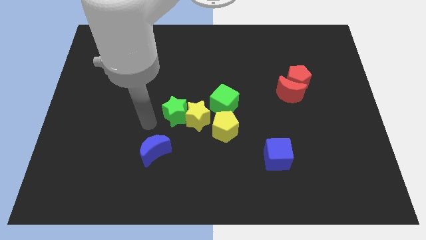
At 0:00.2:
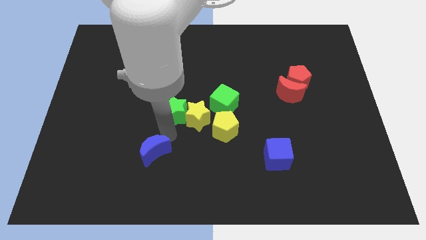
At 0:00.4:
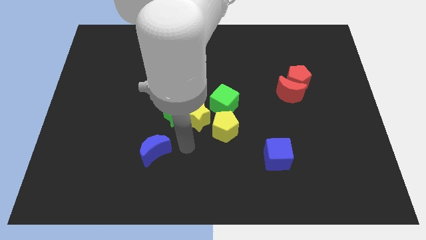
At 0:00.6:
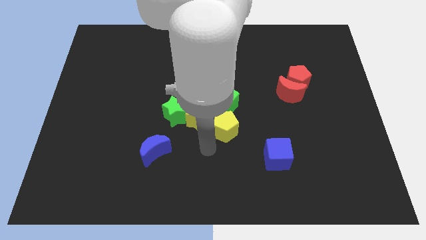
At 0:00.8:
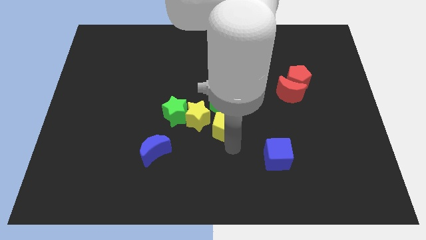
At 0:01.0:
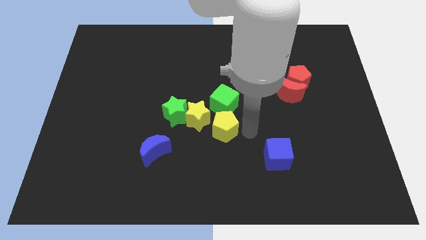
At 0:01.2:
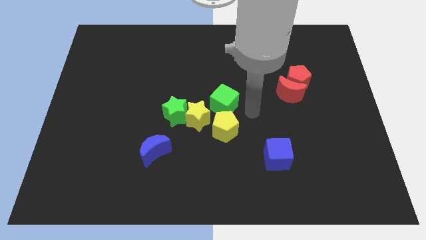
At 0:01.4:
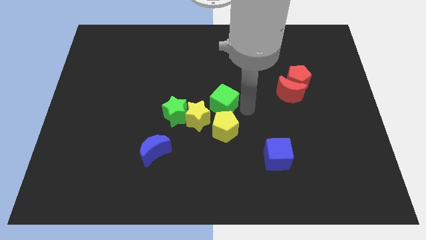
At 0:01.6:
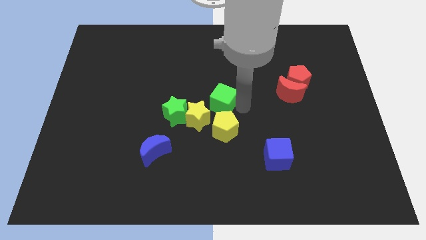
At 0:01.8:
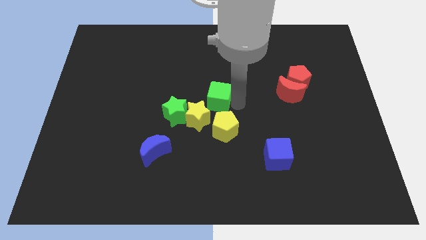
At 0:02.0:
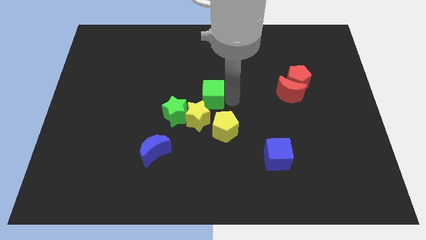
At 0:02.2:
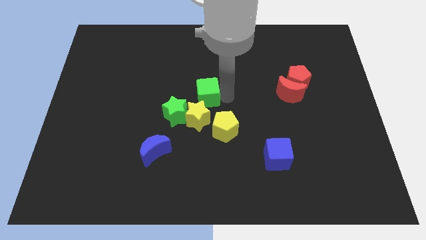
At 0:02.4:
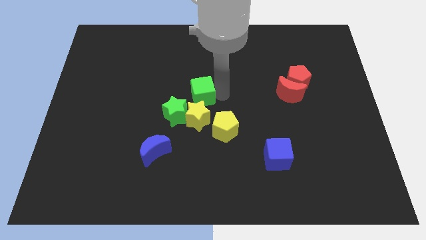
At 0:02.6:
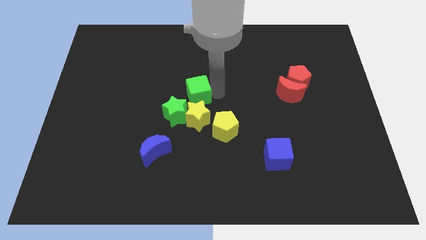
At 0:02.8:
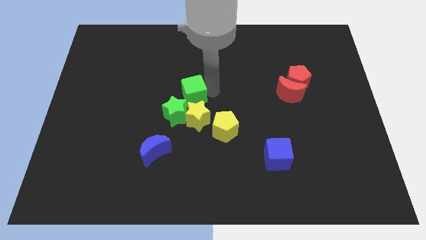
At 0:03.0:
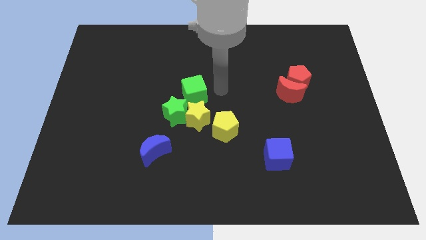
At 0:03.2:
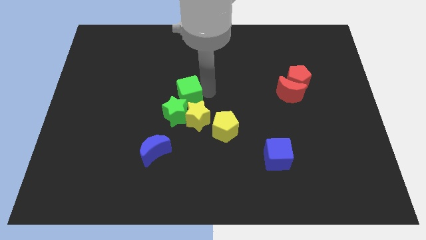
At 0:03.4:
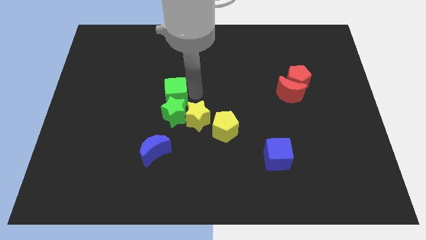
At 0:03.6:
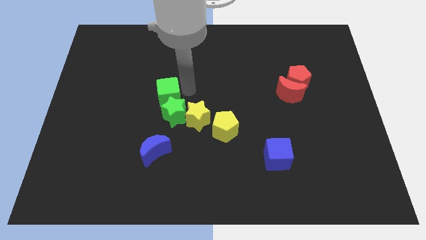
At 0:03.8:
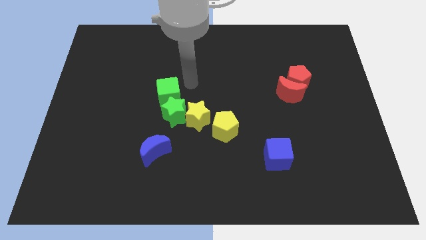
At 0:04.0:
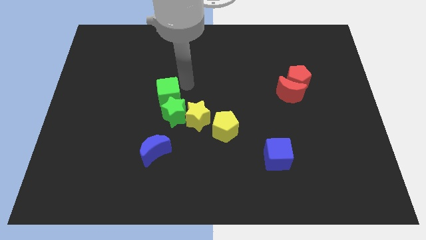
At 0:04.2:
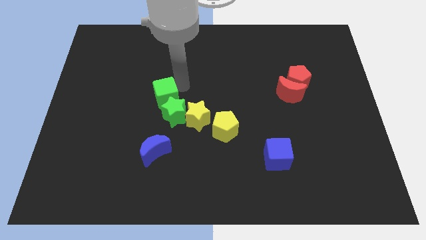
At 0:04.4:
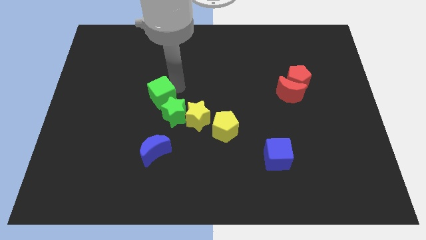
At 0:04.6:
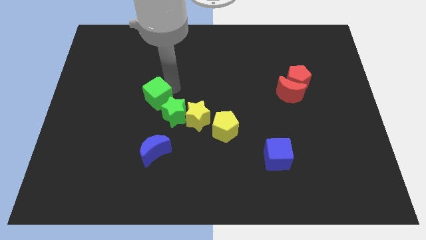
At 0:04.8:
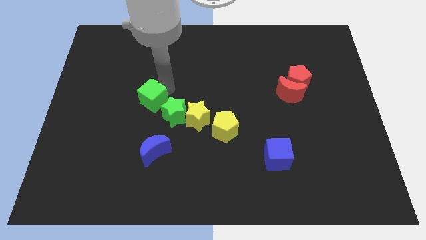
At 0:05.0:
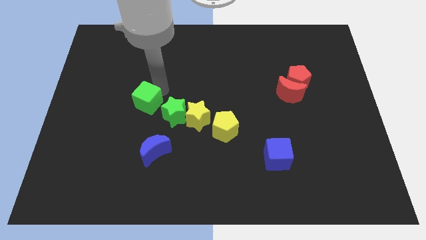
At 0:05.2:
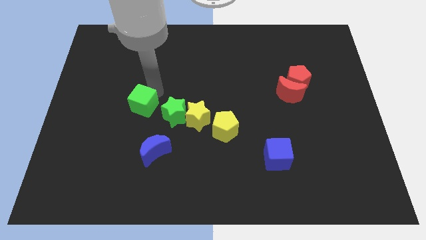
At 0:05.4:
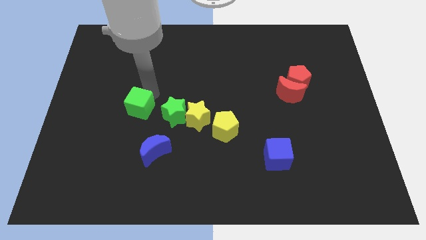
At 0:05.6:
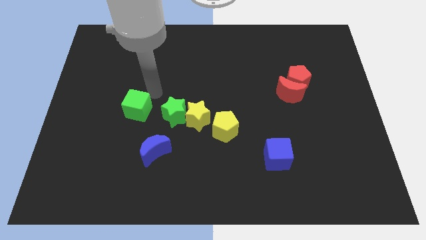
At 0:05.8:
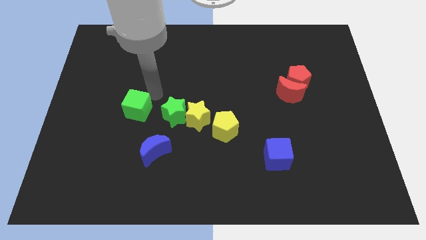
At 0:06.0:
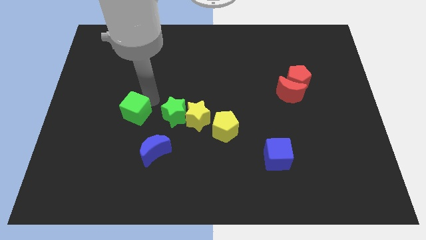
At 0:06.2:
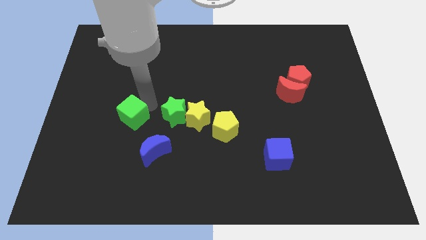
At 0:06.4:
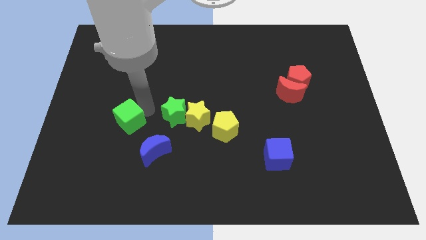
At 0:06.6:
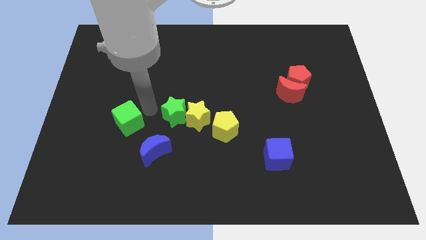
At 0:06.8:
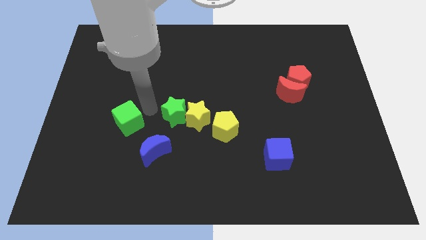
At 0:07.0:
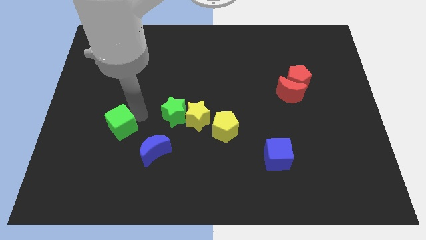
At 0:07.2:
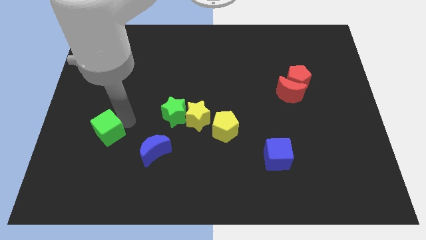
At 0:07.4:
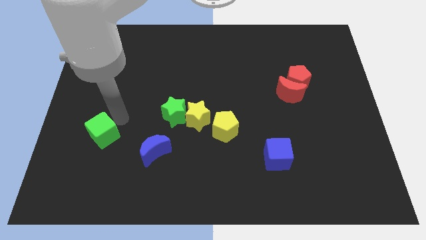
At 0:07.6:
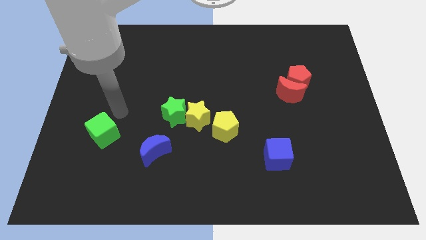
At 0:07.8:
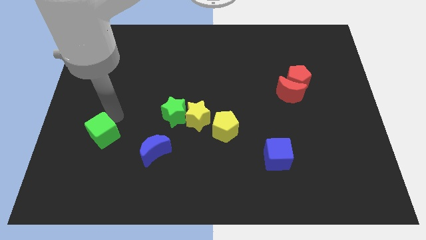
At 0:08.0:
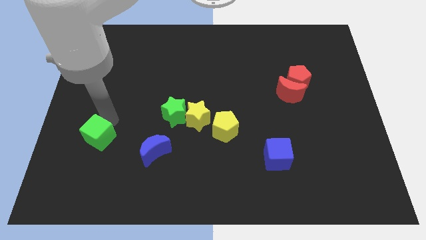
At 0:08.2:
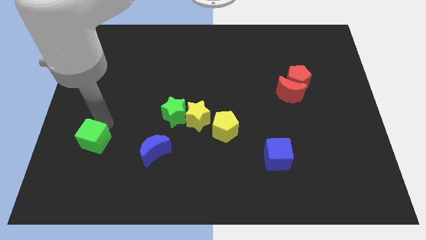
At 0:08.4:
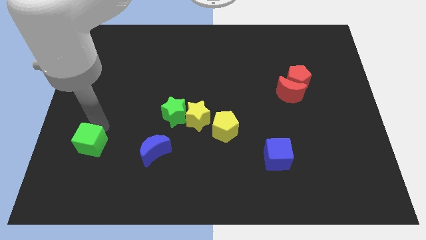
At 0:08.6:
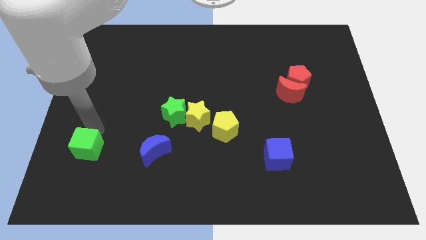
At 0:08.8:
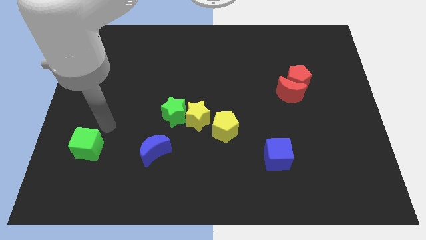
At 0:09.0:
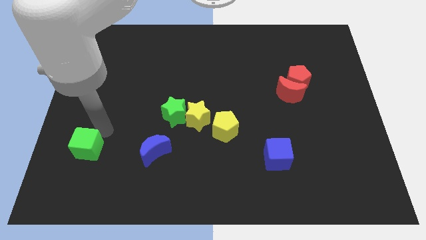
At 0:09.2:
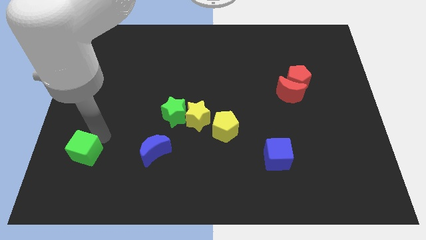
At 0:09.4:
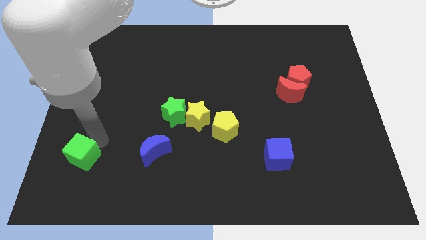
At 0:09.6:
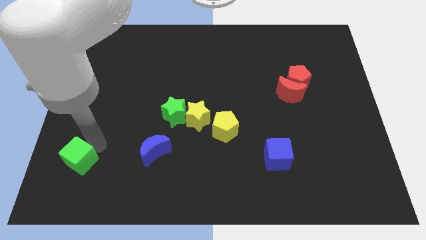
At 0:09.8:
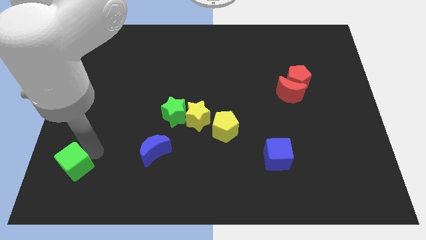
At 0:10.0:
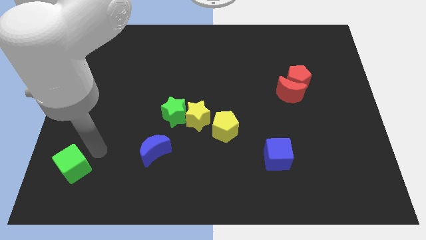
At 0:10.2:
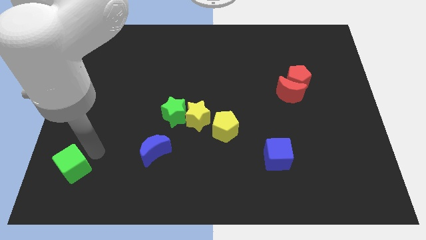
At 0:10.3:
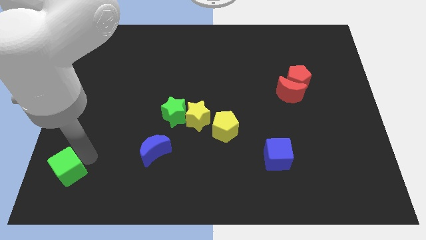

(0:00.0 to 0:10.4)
push the green cube to the bottom left corner

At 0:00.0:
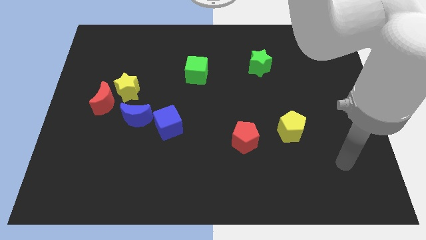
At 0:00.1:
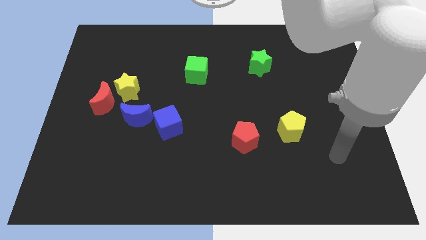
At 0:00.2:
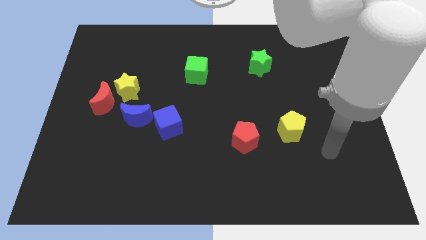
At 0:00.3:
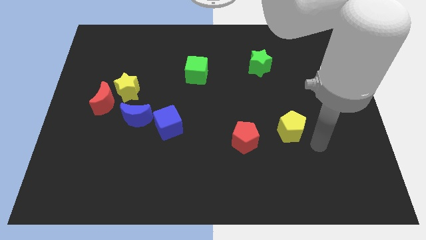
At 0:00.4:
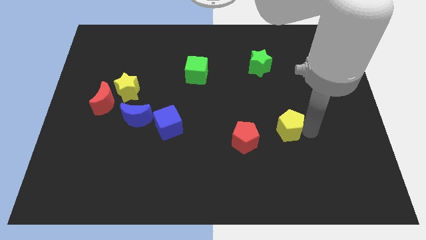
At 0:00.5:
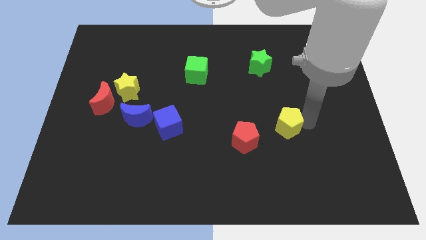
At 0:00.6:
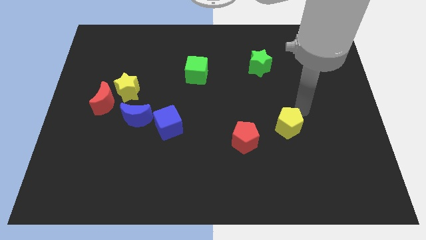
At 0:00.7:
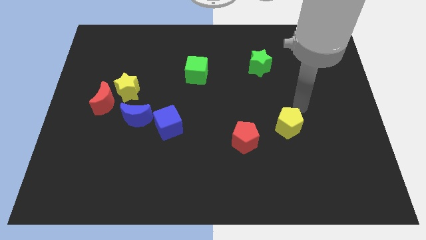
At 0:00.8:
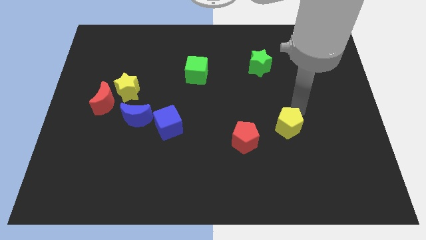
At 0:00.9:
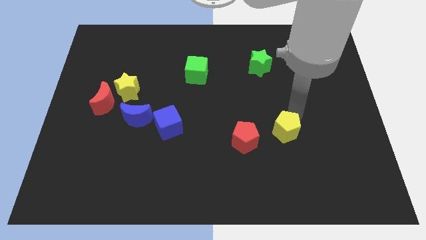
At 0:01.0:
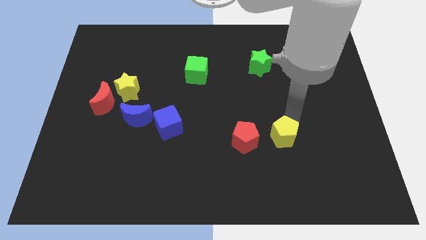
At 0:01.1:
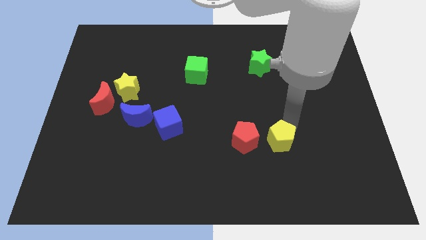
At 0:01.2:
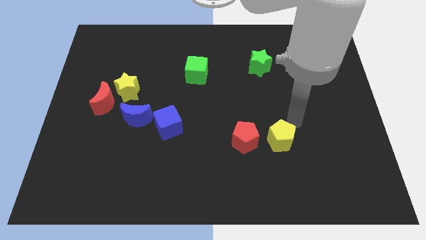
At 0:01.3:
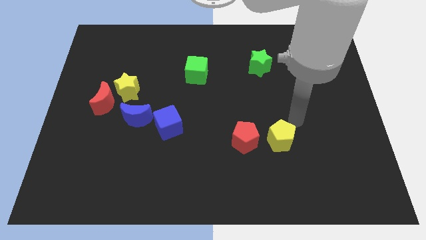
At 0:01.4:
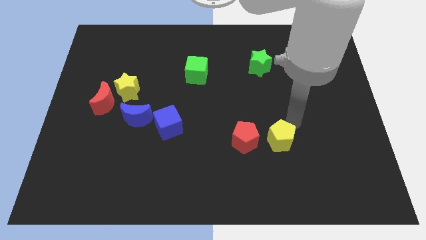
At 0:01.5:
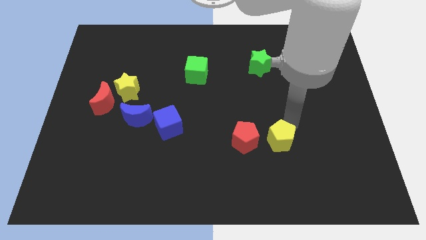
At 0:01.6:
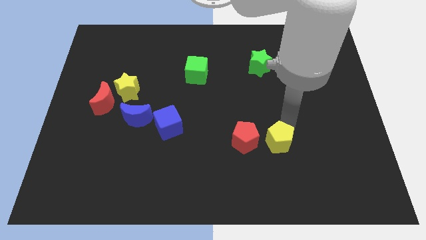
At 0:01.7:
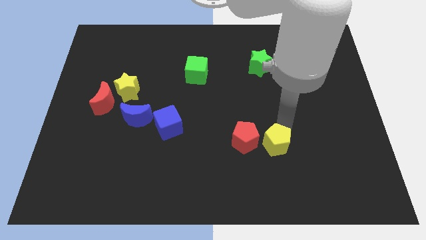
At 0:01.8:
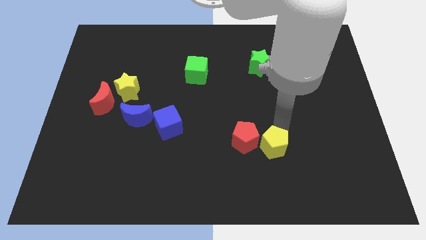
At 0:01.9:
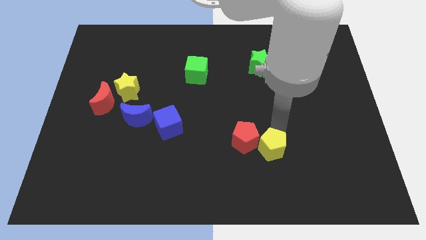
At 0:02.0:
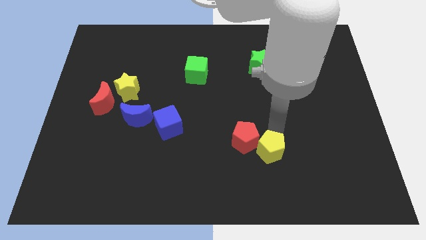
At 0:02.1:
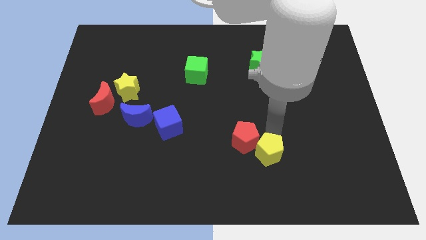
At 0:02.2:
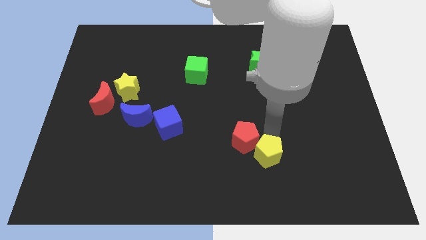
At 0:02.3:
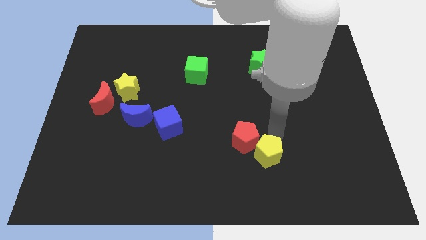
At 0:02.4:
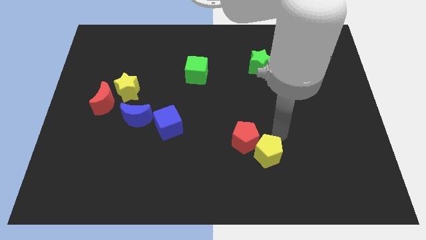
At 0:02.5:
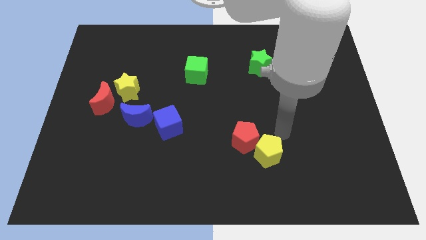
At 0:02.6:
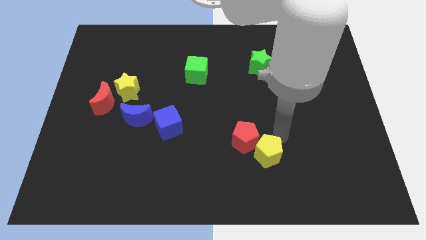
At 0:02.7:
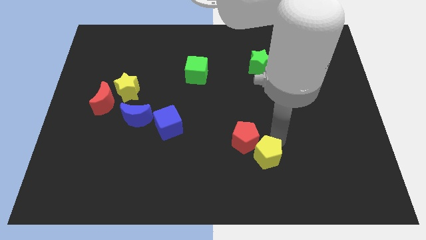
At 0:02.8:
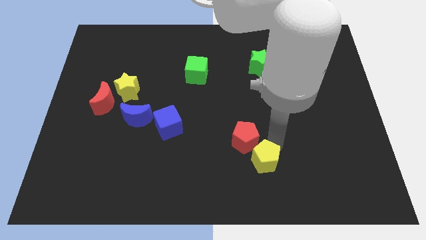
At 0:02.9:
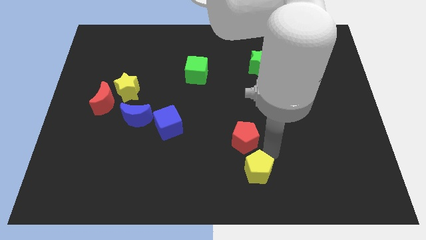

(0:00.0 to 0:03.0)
push the yellow pentagon to the bottom

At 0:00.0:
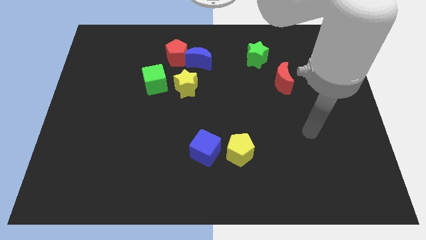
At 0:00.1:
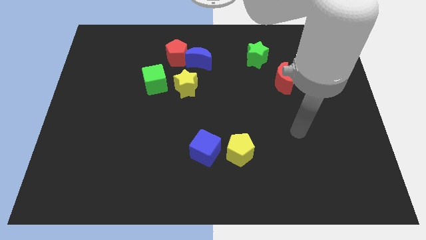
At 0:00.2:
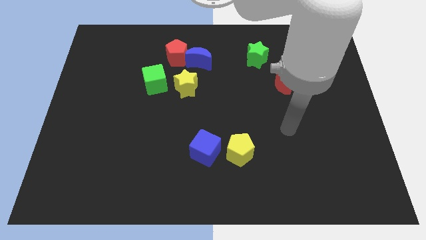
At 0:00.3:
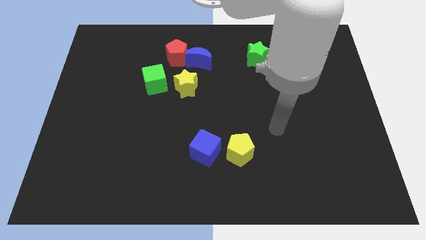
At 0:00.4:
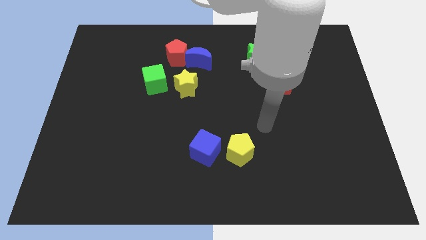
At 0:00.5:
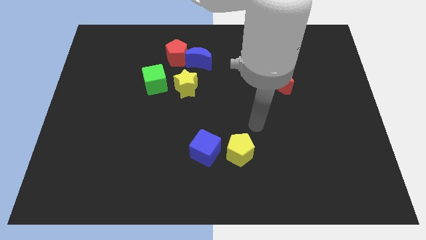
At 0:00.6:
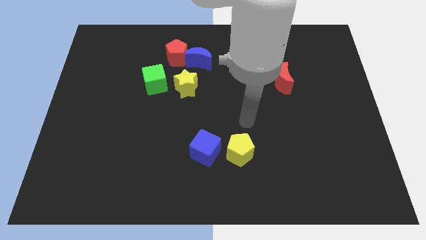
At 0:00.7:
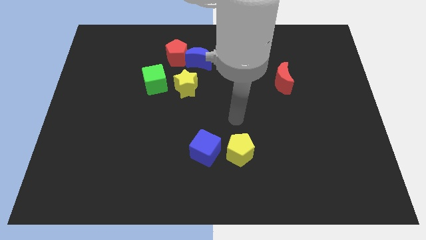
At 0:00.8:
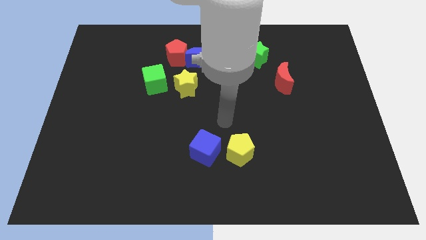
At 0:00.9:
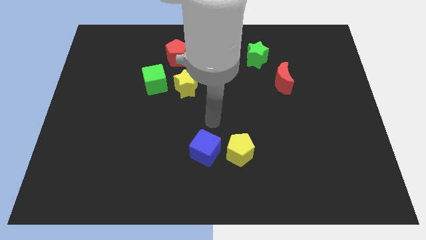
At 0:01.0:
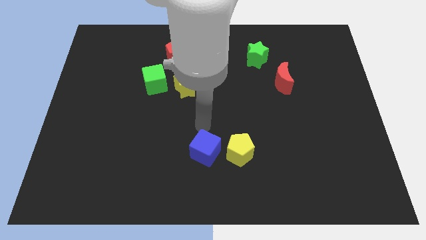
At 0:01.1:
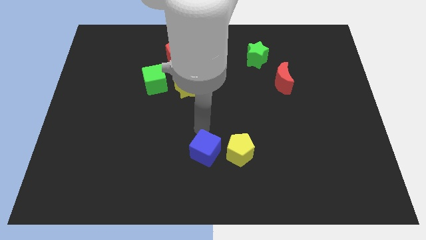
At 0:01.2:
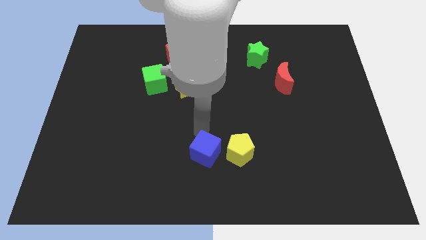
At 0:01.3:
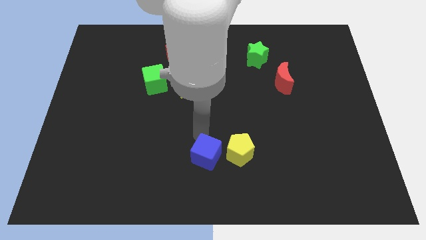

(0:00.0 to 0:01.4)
move the blue cube to the bottom
